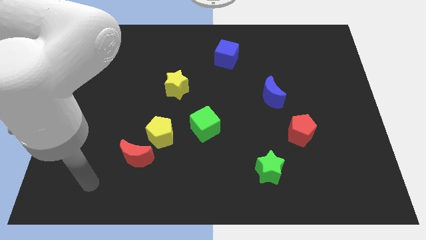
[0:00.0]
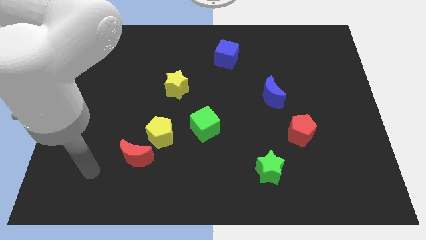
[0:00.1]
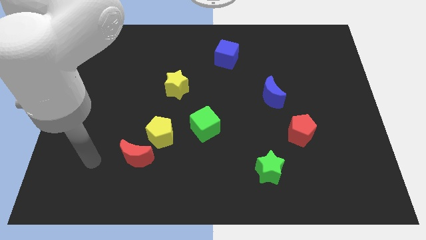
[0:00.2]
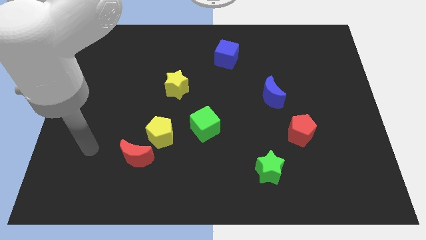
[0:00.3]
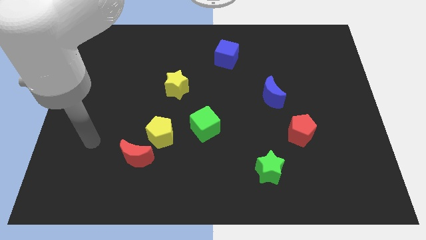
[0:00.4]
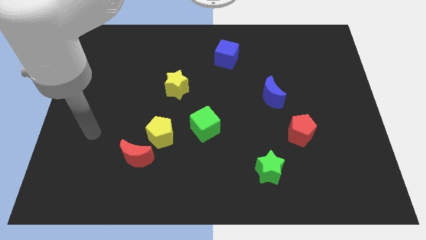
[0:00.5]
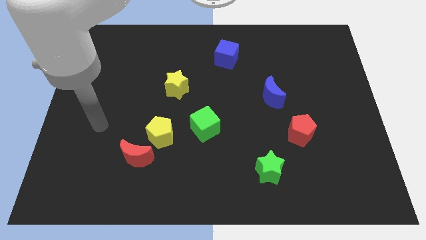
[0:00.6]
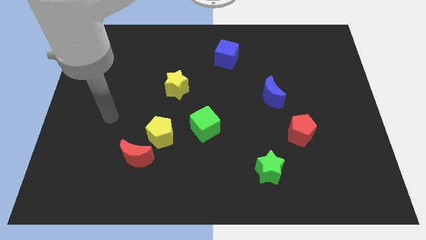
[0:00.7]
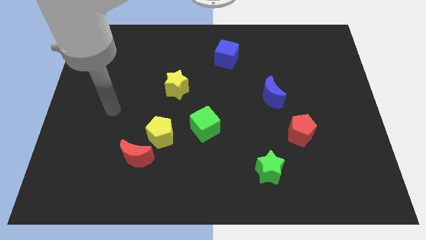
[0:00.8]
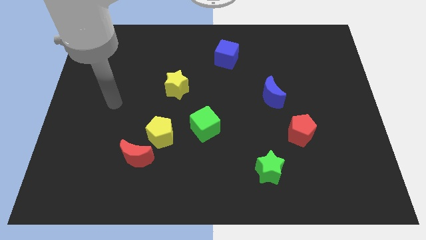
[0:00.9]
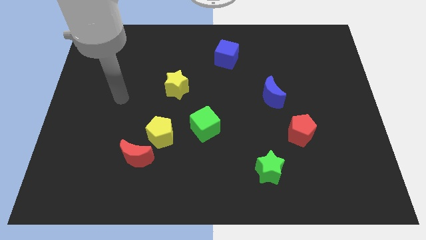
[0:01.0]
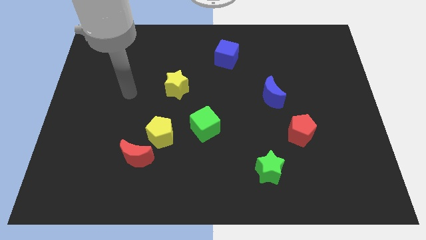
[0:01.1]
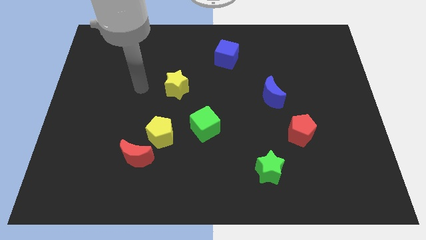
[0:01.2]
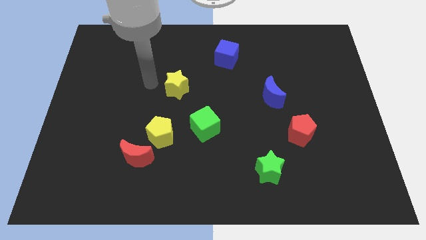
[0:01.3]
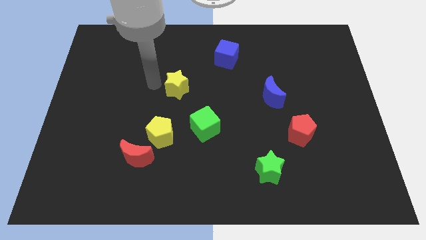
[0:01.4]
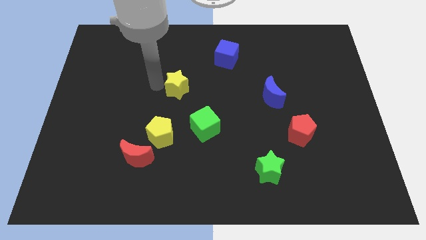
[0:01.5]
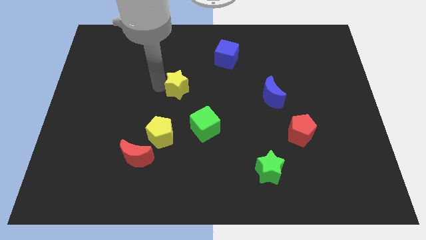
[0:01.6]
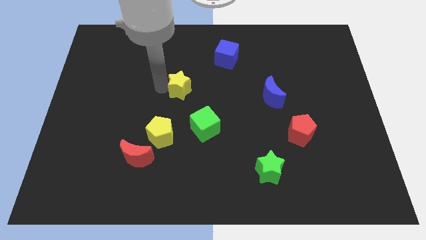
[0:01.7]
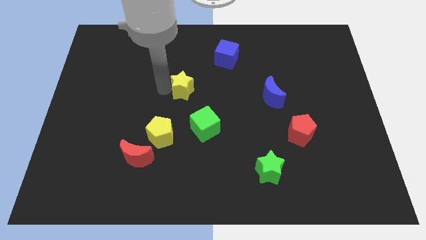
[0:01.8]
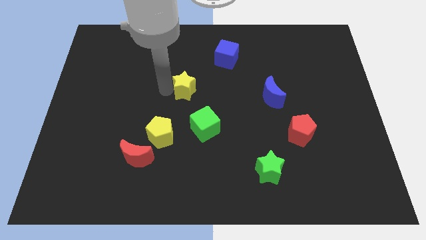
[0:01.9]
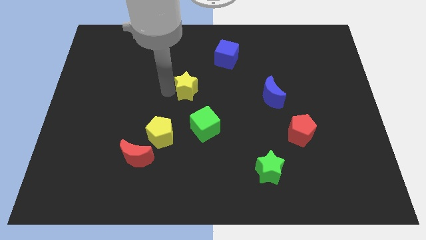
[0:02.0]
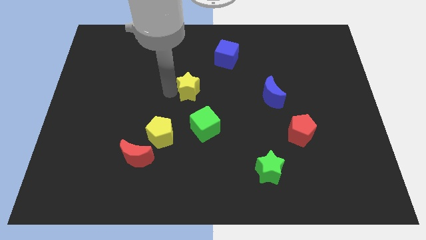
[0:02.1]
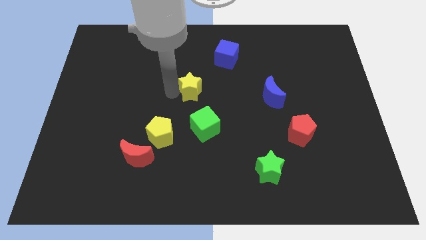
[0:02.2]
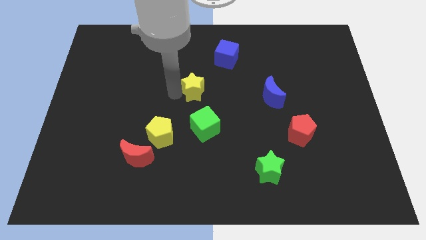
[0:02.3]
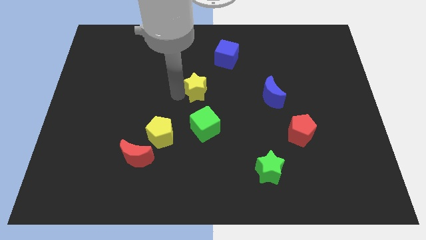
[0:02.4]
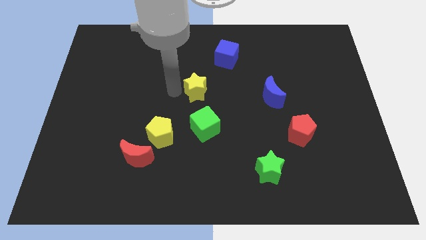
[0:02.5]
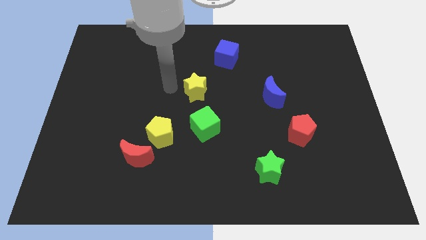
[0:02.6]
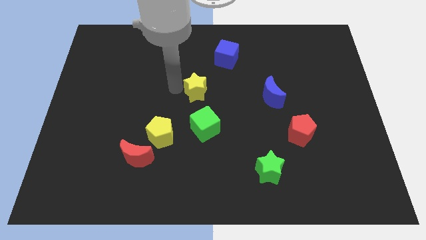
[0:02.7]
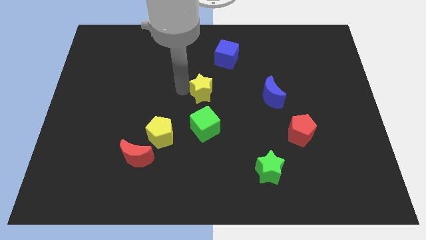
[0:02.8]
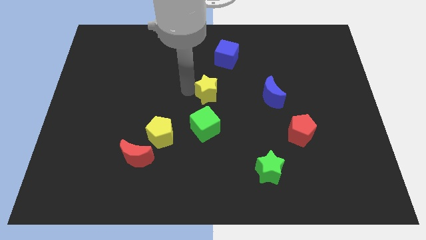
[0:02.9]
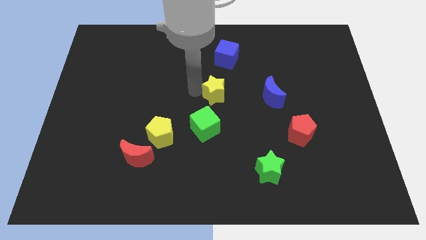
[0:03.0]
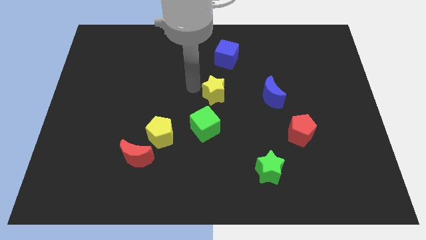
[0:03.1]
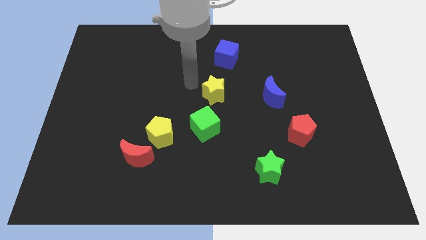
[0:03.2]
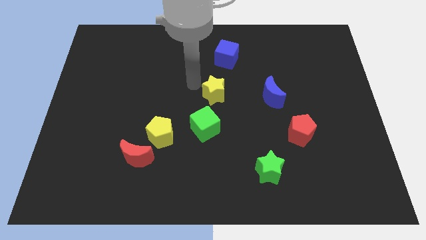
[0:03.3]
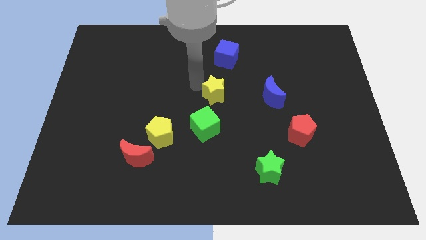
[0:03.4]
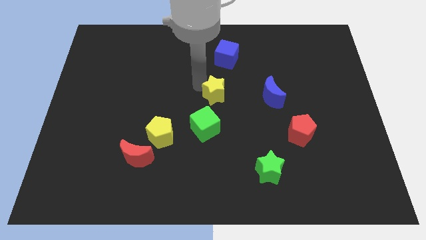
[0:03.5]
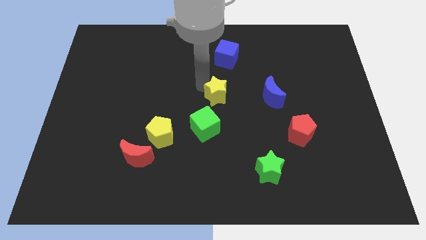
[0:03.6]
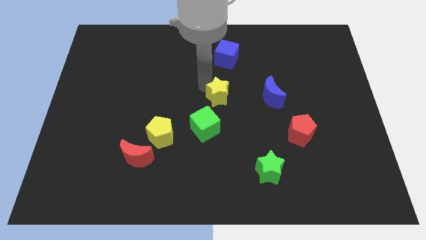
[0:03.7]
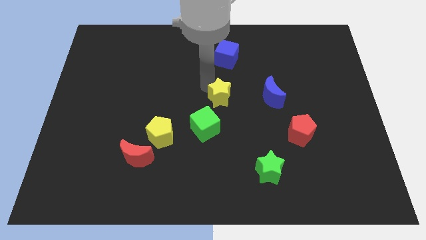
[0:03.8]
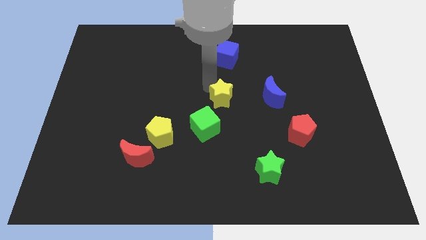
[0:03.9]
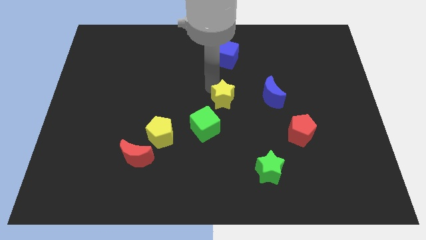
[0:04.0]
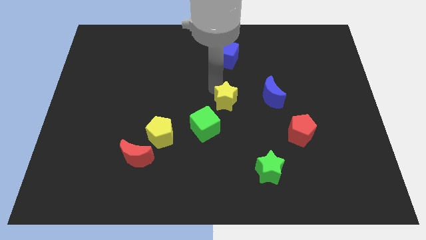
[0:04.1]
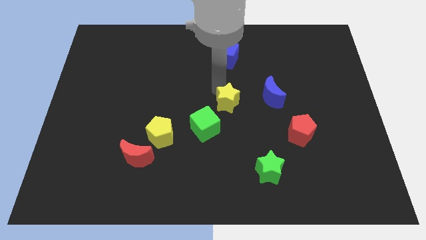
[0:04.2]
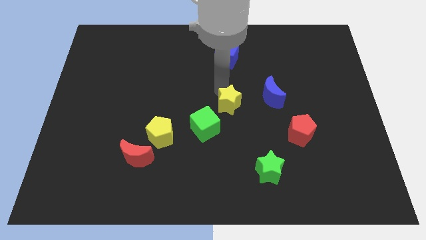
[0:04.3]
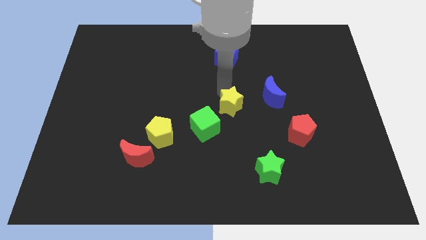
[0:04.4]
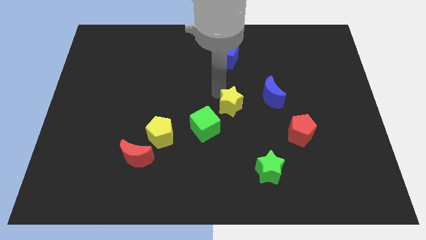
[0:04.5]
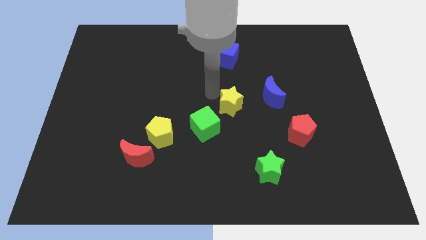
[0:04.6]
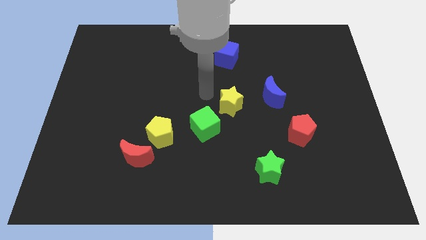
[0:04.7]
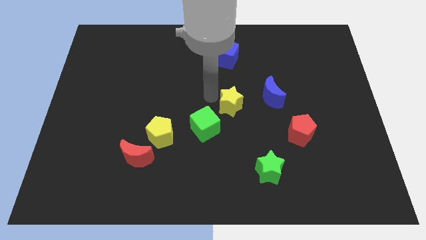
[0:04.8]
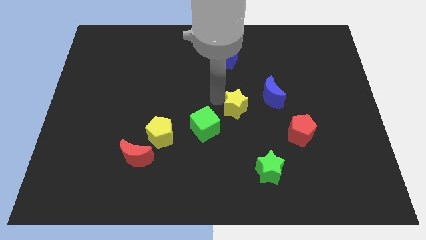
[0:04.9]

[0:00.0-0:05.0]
put the yellow star diagonally down and to the left of the blue moon

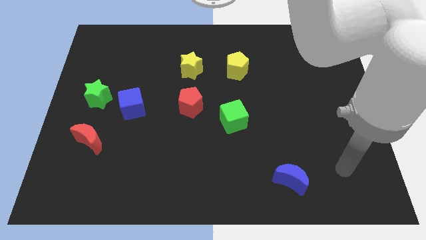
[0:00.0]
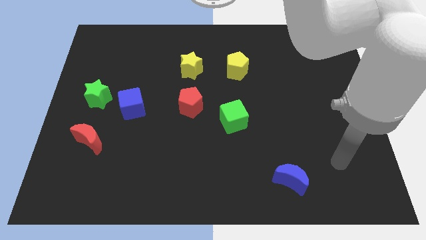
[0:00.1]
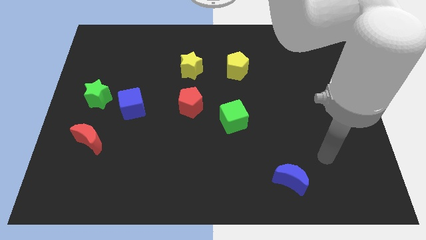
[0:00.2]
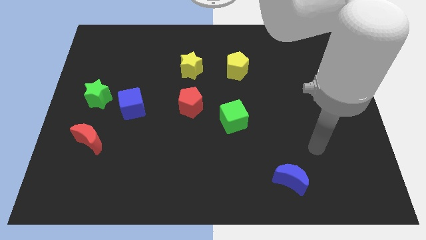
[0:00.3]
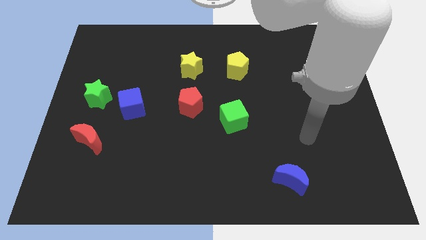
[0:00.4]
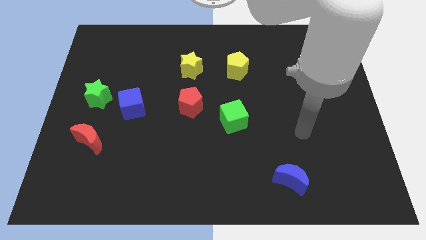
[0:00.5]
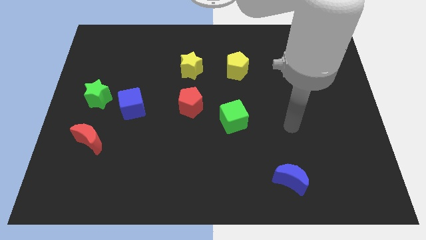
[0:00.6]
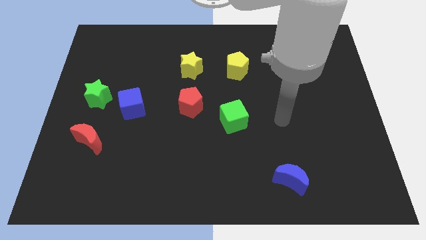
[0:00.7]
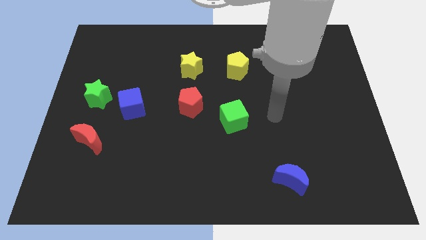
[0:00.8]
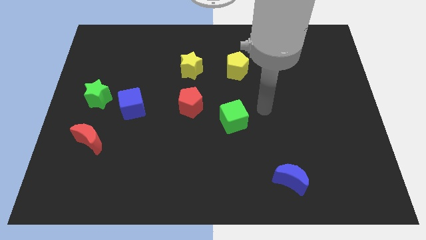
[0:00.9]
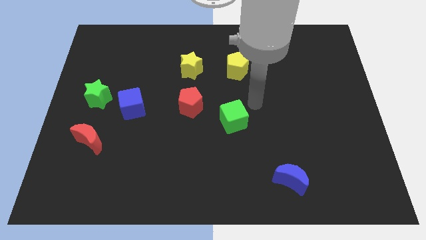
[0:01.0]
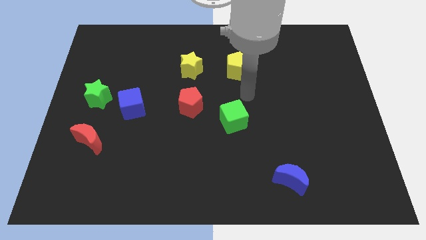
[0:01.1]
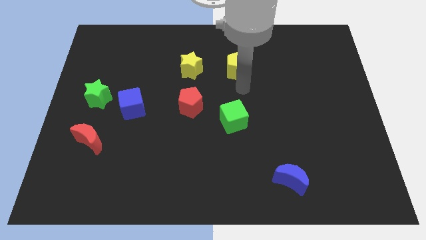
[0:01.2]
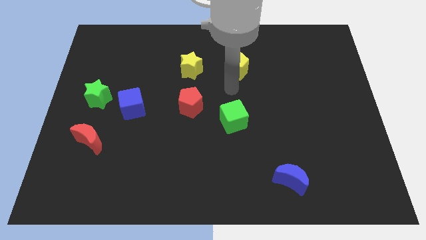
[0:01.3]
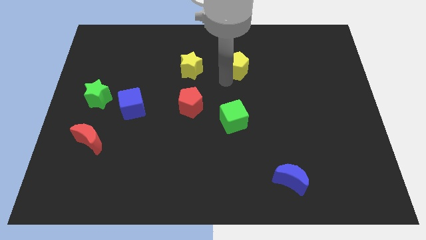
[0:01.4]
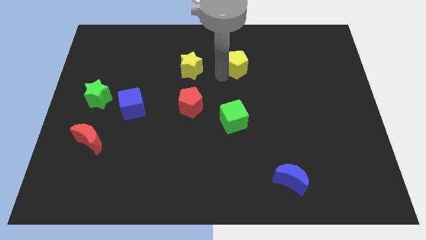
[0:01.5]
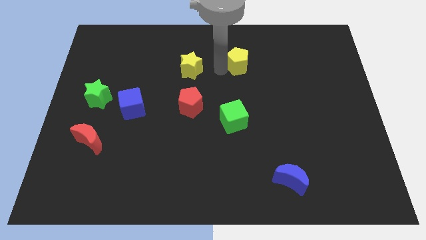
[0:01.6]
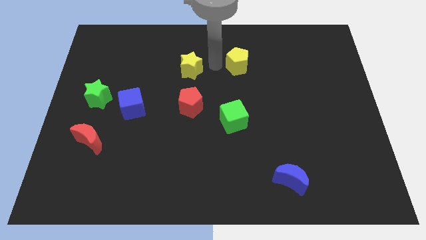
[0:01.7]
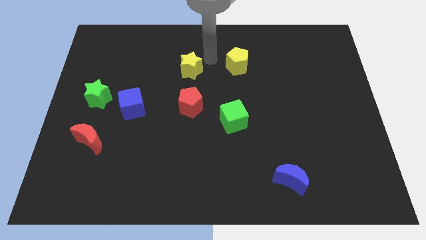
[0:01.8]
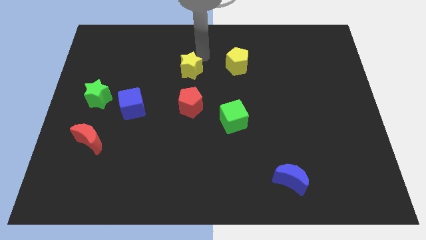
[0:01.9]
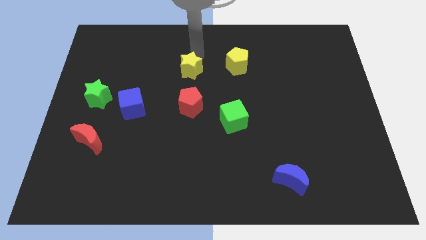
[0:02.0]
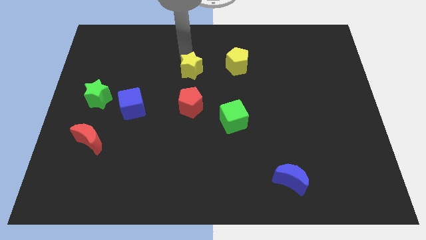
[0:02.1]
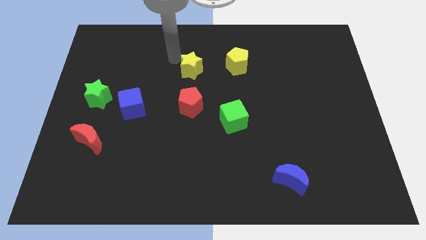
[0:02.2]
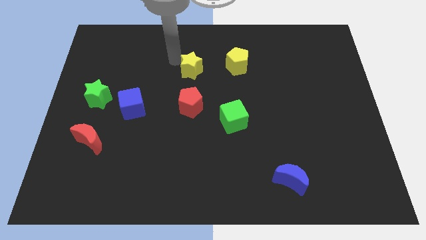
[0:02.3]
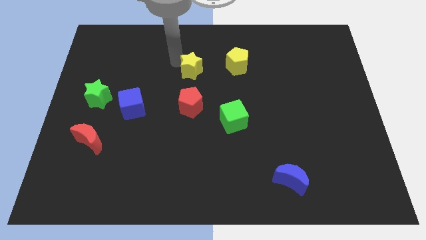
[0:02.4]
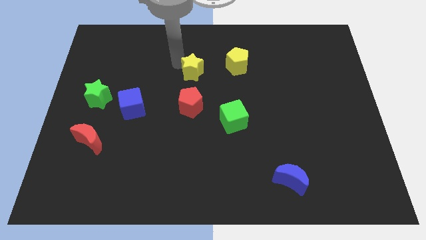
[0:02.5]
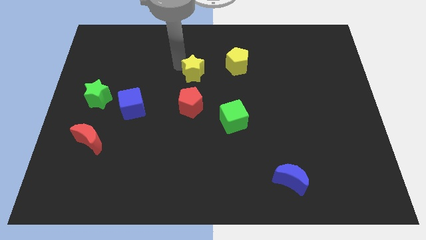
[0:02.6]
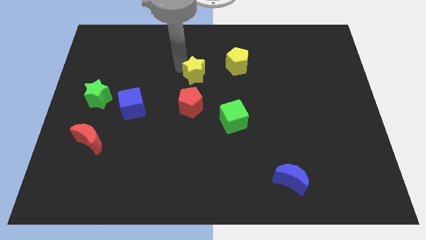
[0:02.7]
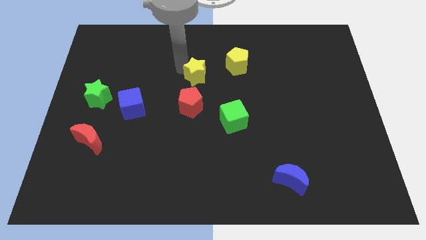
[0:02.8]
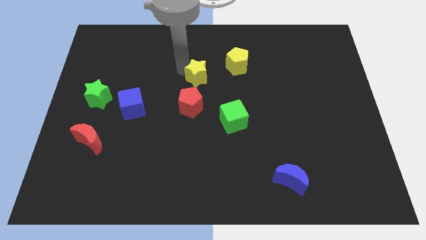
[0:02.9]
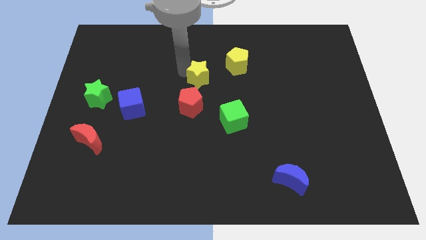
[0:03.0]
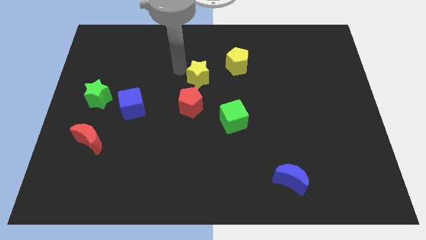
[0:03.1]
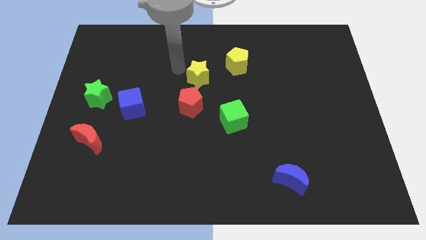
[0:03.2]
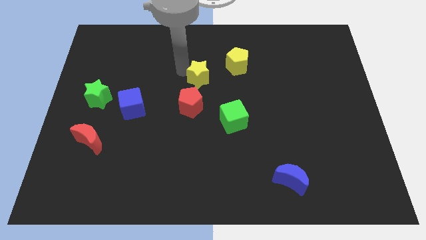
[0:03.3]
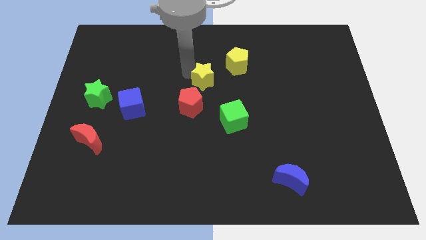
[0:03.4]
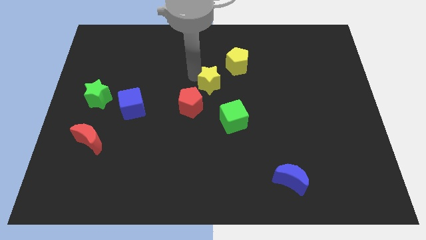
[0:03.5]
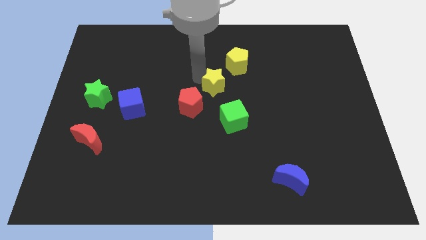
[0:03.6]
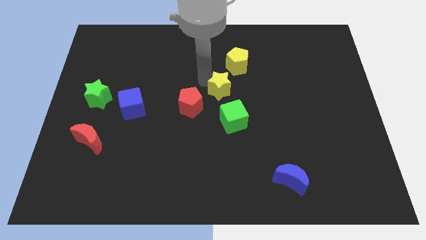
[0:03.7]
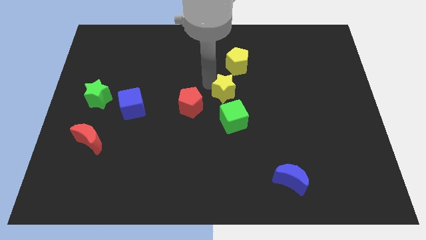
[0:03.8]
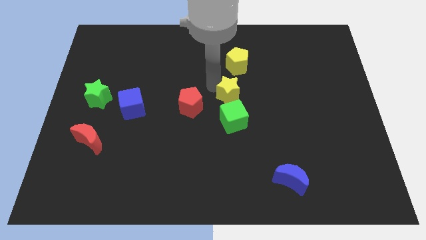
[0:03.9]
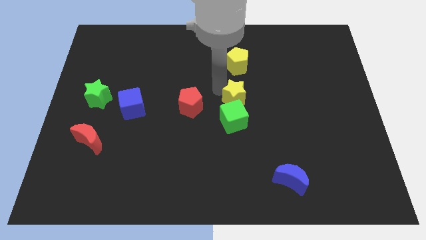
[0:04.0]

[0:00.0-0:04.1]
move the yellow star to the top right side of the green cube
